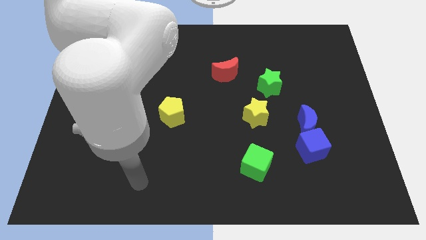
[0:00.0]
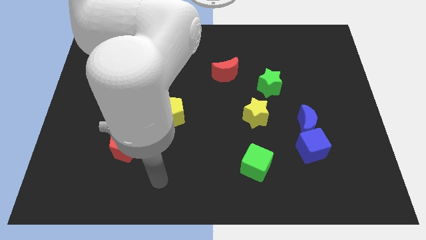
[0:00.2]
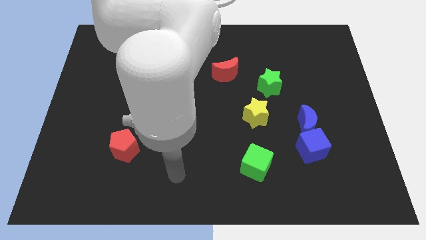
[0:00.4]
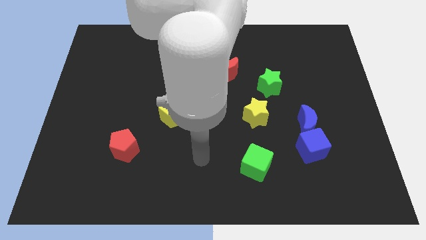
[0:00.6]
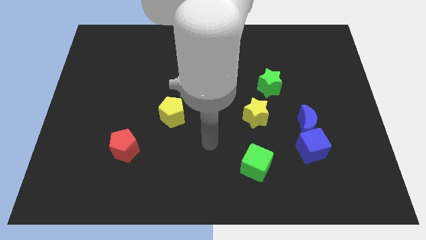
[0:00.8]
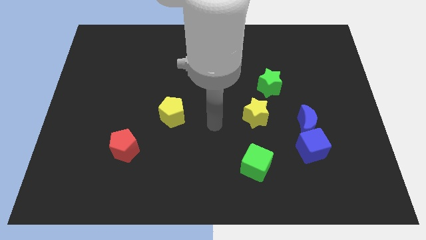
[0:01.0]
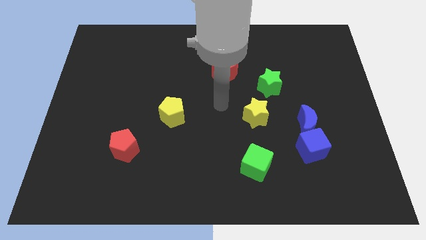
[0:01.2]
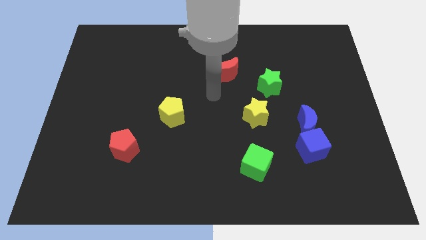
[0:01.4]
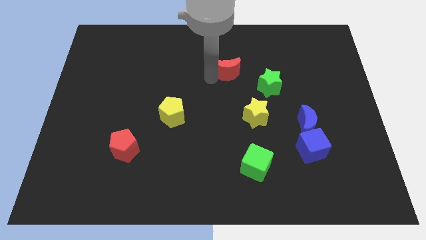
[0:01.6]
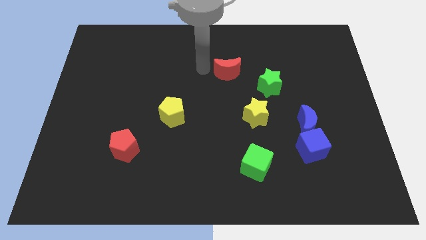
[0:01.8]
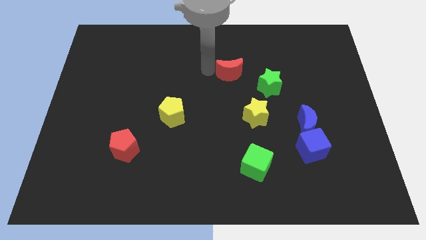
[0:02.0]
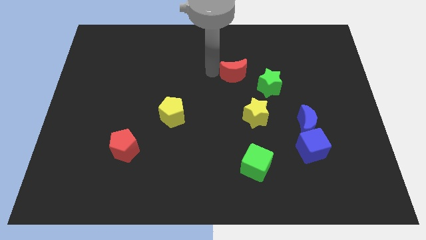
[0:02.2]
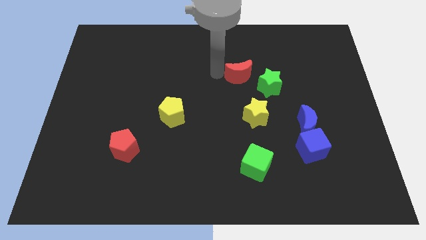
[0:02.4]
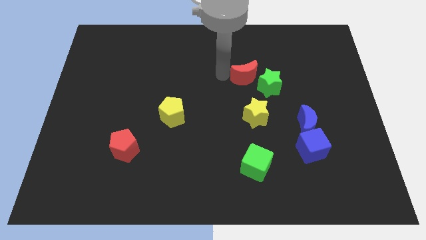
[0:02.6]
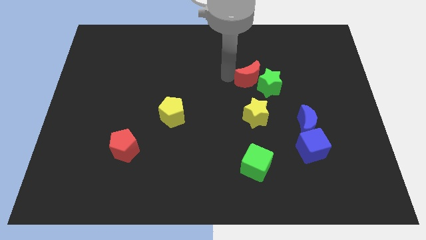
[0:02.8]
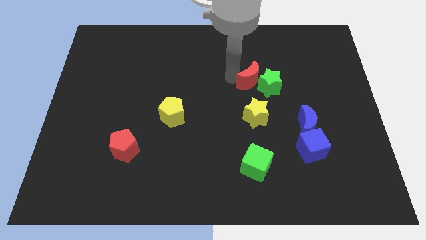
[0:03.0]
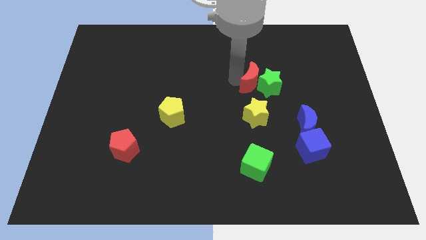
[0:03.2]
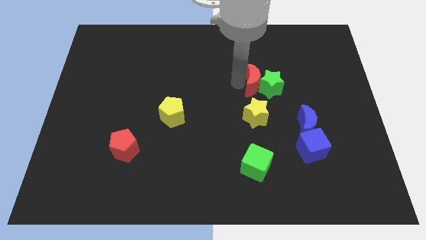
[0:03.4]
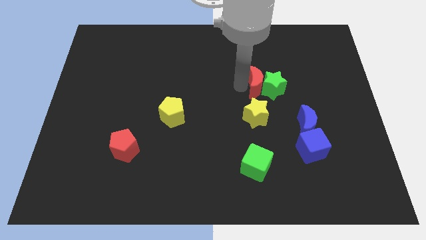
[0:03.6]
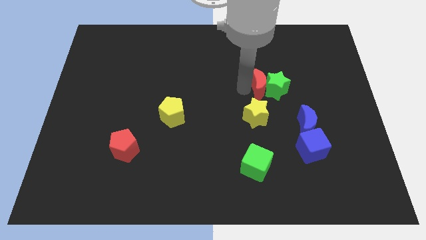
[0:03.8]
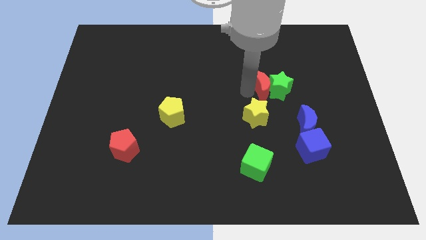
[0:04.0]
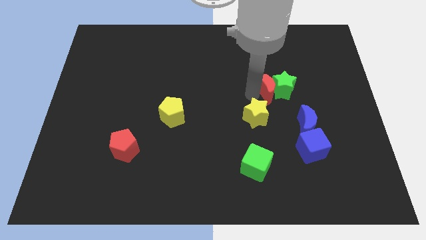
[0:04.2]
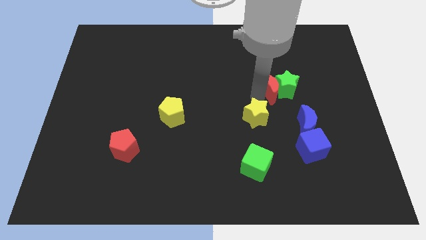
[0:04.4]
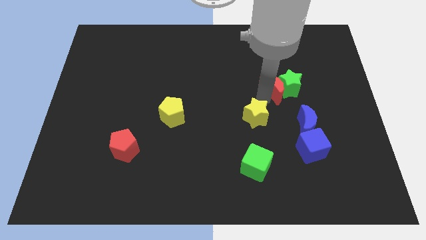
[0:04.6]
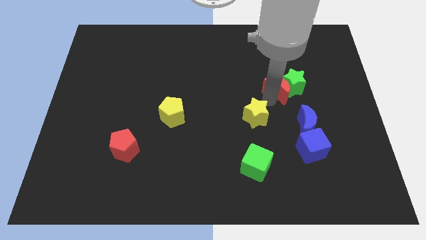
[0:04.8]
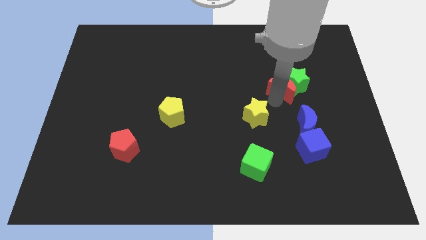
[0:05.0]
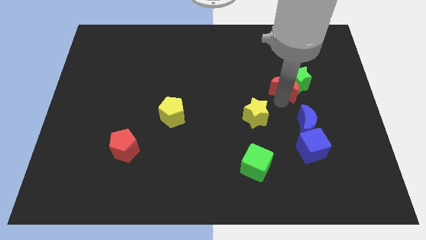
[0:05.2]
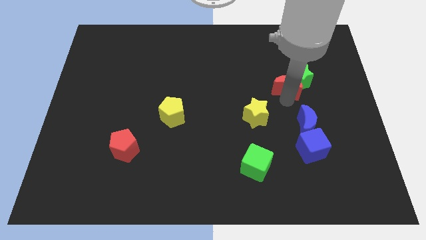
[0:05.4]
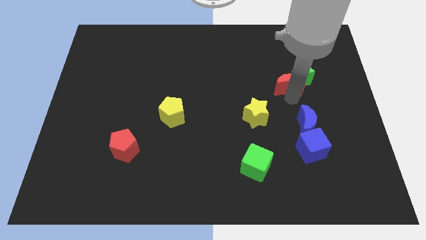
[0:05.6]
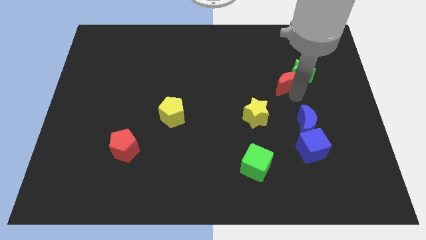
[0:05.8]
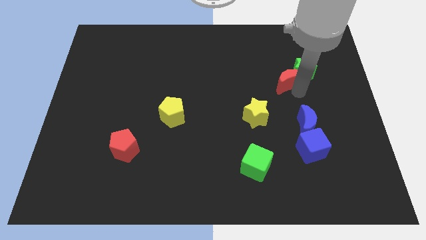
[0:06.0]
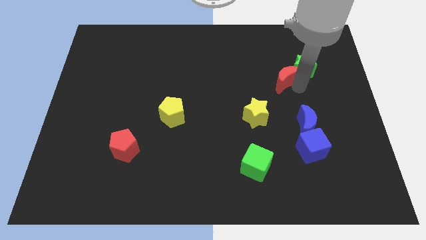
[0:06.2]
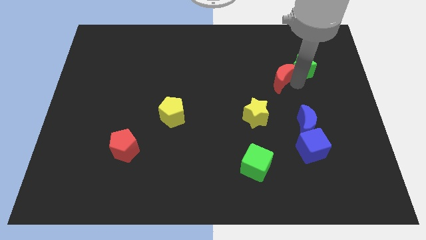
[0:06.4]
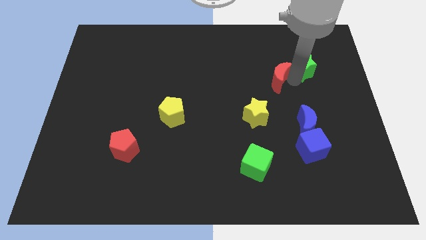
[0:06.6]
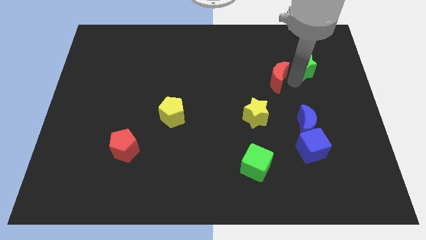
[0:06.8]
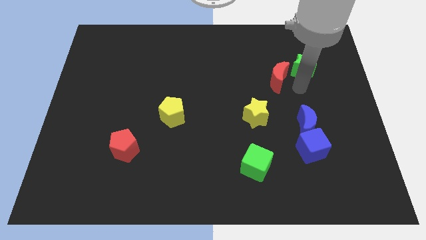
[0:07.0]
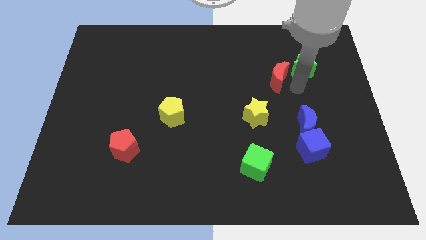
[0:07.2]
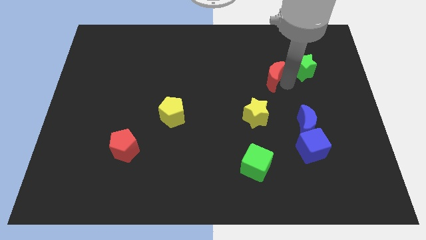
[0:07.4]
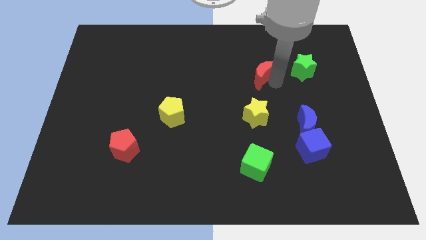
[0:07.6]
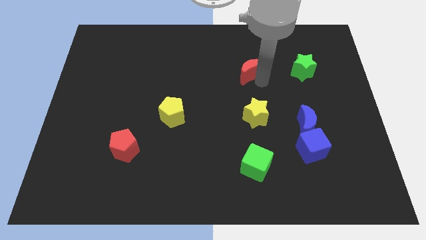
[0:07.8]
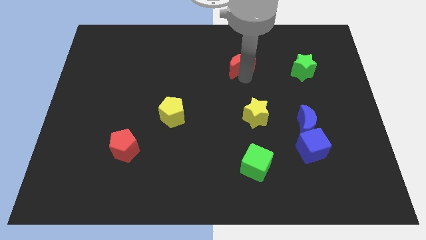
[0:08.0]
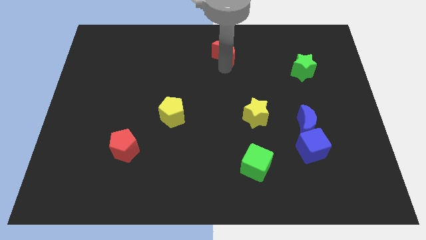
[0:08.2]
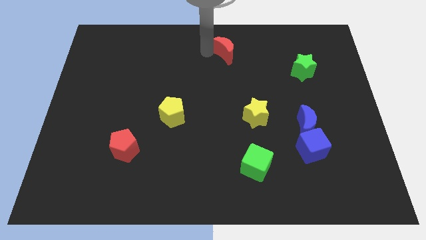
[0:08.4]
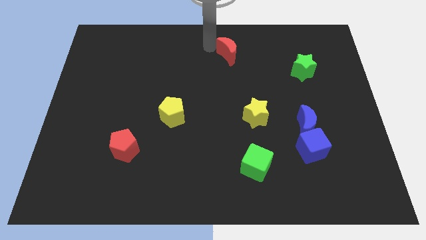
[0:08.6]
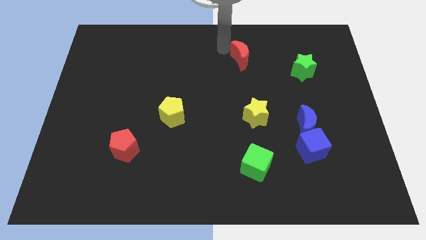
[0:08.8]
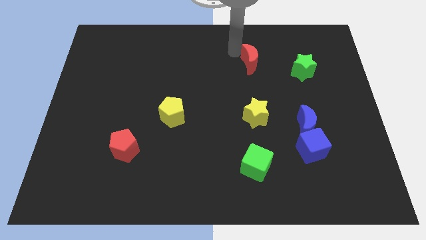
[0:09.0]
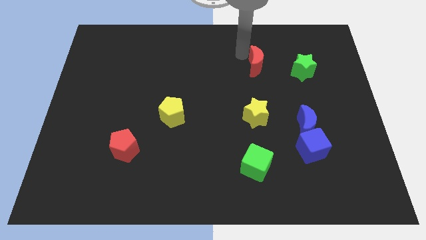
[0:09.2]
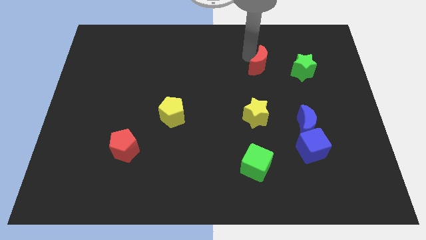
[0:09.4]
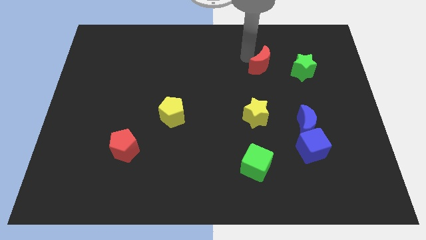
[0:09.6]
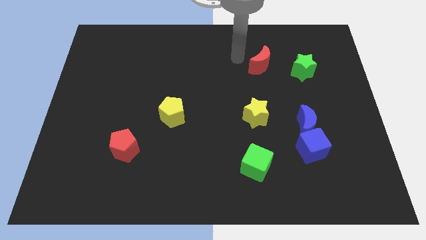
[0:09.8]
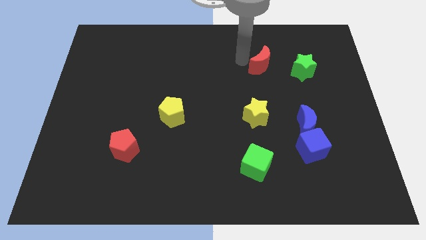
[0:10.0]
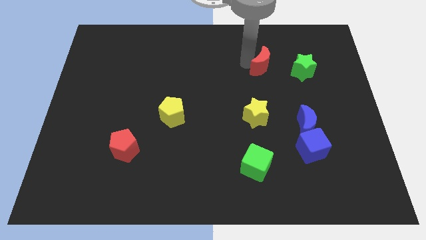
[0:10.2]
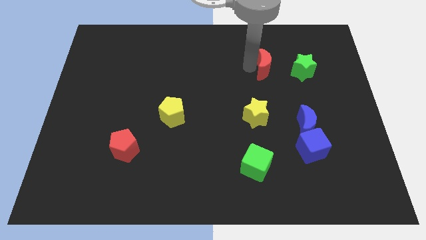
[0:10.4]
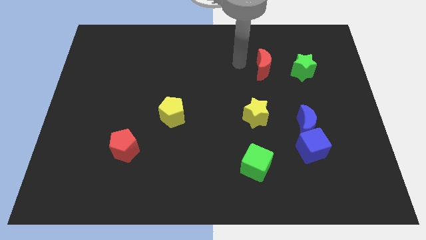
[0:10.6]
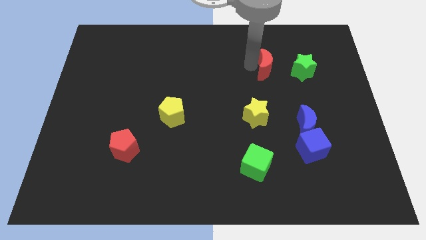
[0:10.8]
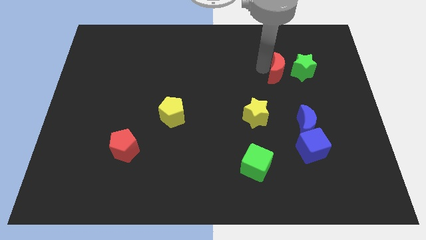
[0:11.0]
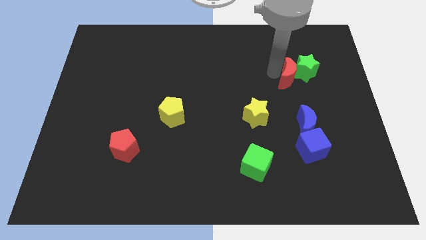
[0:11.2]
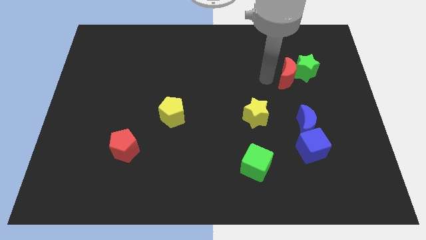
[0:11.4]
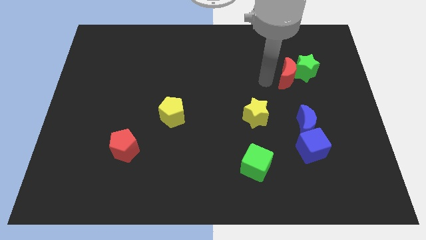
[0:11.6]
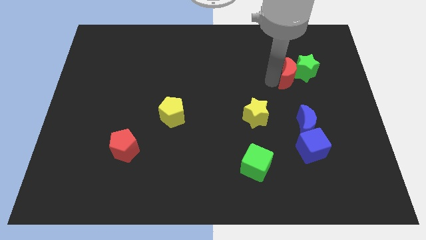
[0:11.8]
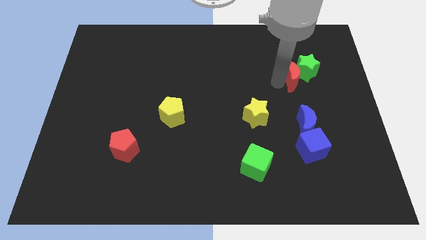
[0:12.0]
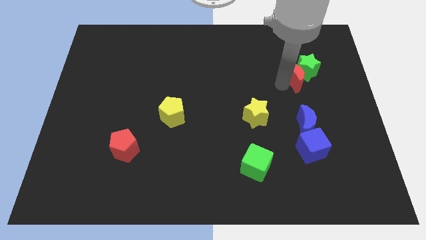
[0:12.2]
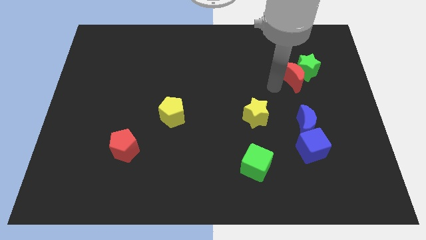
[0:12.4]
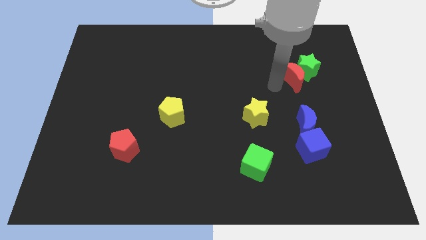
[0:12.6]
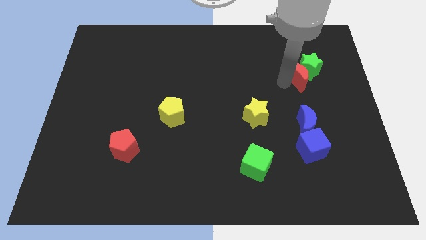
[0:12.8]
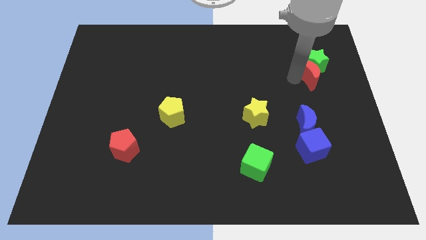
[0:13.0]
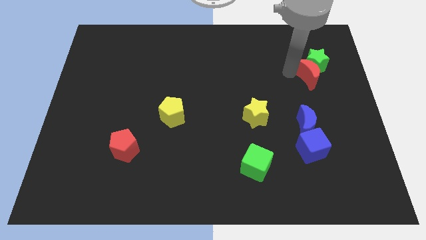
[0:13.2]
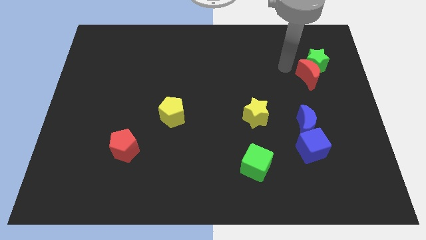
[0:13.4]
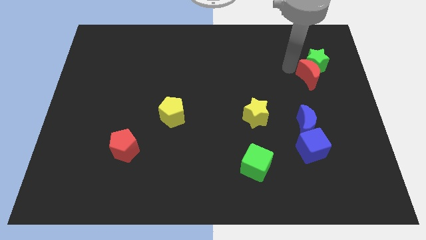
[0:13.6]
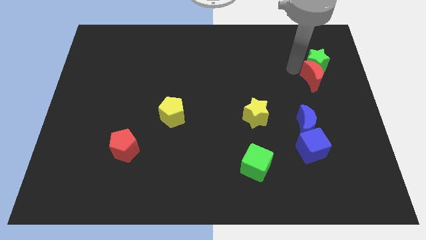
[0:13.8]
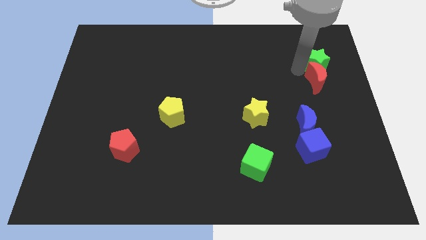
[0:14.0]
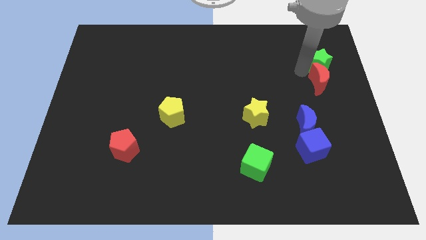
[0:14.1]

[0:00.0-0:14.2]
put the red moon to the center right
